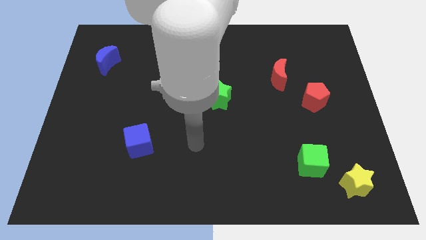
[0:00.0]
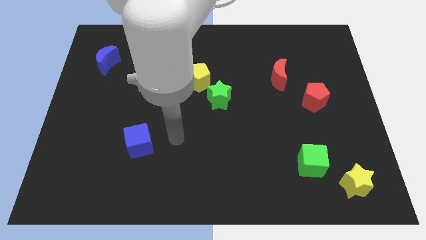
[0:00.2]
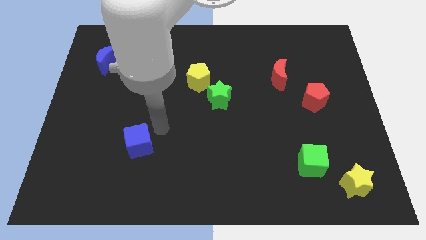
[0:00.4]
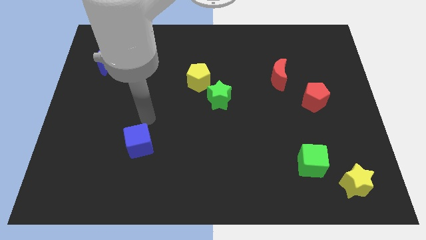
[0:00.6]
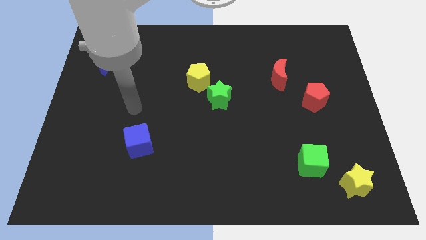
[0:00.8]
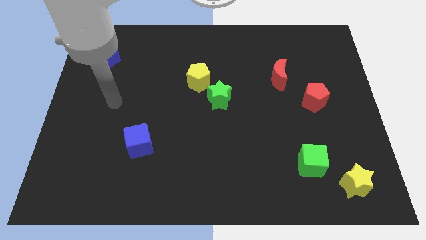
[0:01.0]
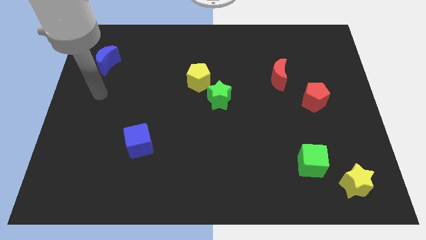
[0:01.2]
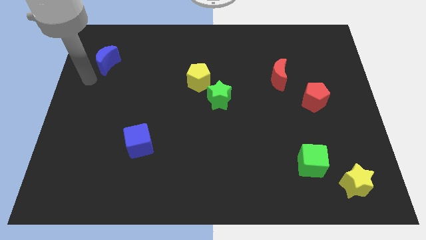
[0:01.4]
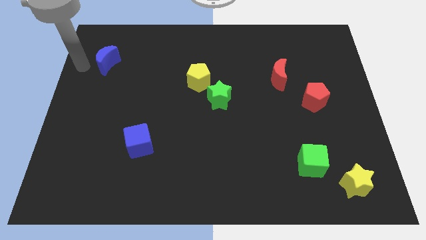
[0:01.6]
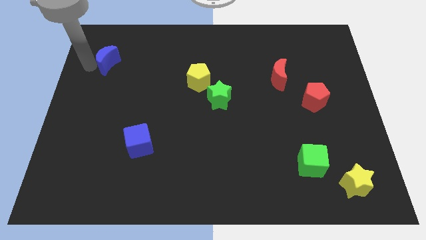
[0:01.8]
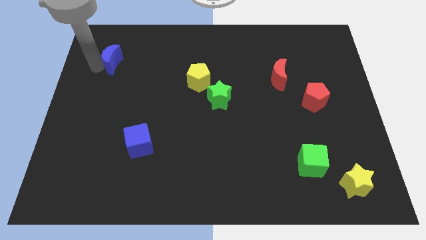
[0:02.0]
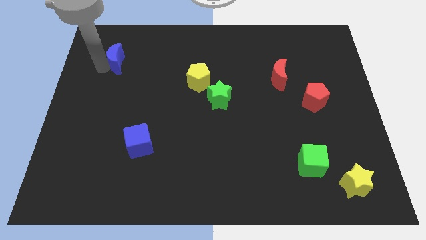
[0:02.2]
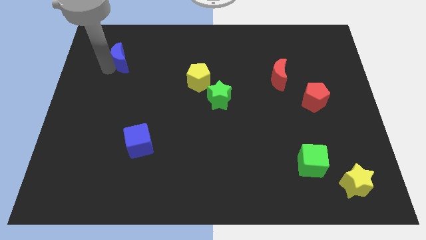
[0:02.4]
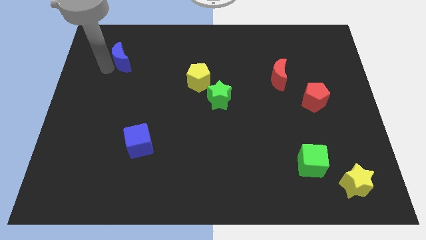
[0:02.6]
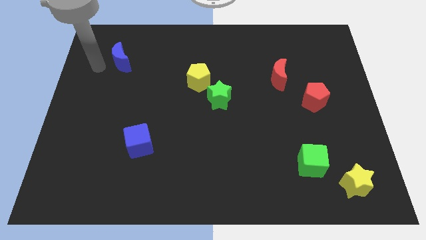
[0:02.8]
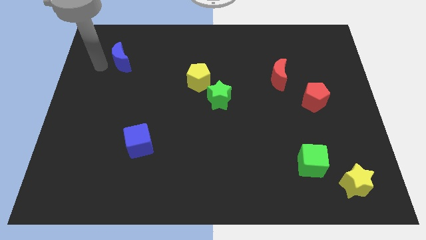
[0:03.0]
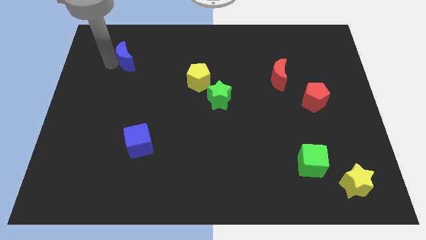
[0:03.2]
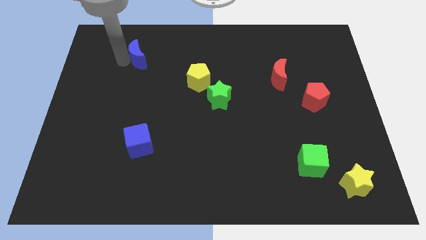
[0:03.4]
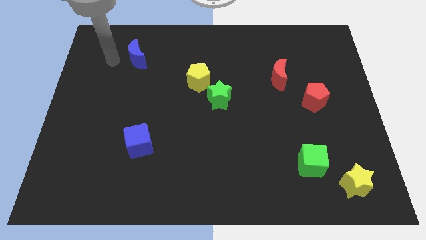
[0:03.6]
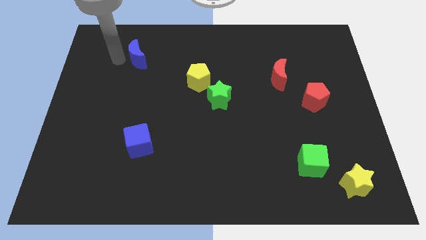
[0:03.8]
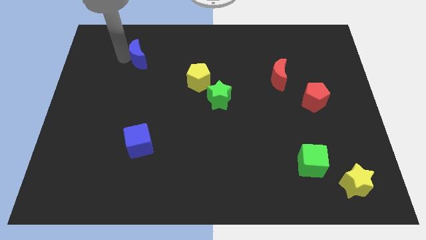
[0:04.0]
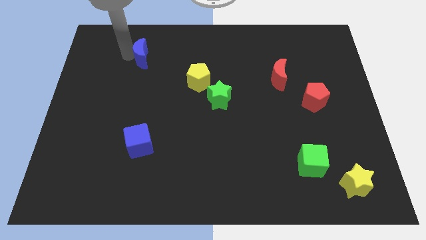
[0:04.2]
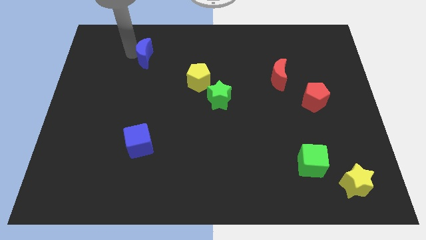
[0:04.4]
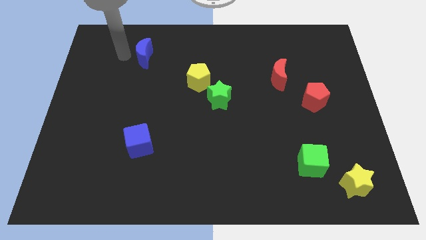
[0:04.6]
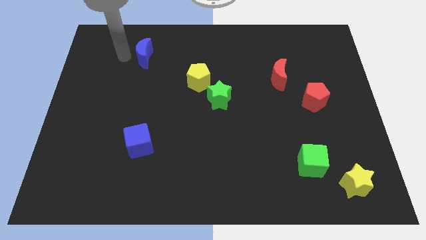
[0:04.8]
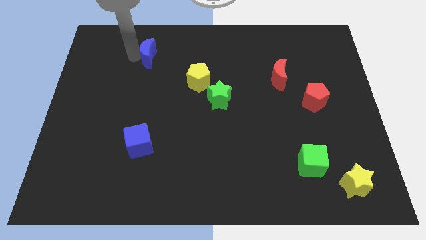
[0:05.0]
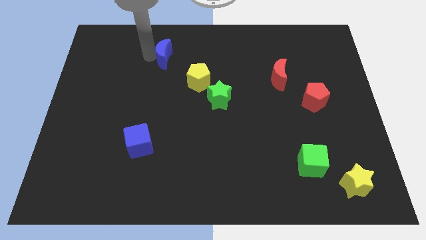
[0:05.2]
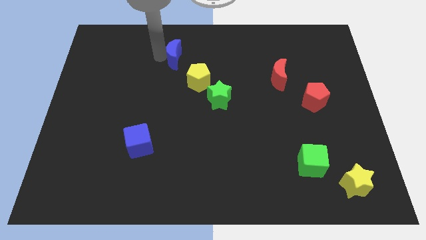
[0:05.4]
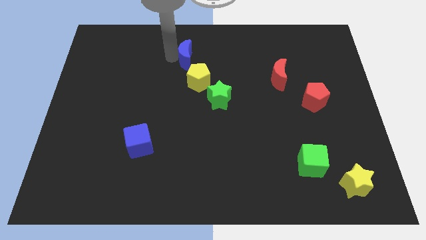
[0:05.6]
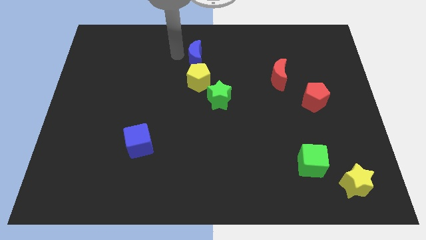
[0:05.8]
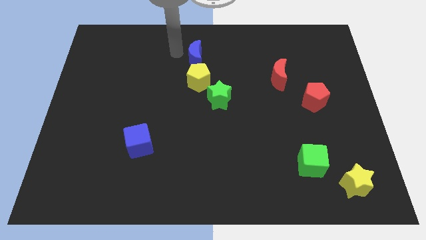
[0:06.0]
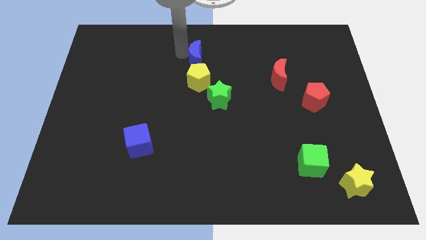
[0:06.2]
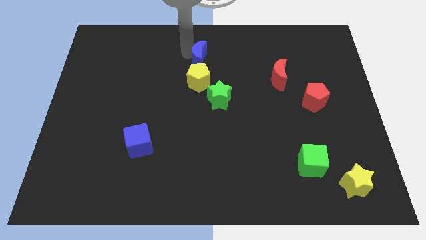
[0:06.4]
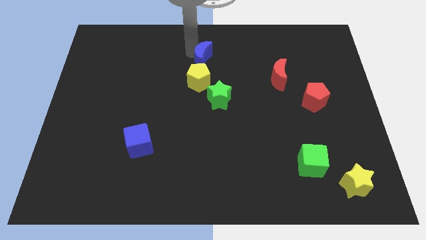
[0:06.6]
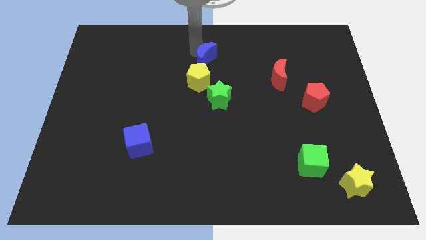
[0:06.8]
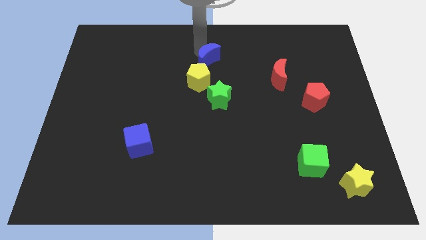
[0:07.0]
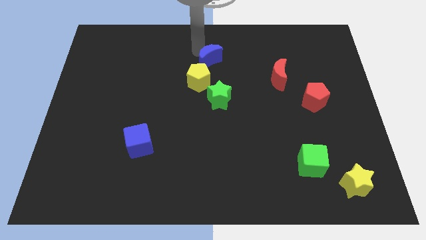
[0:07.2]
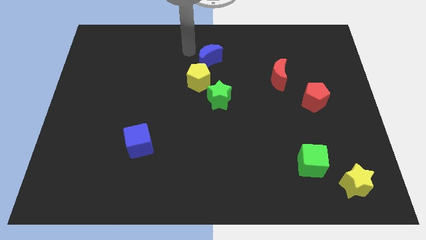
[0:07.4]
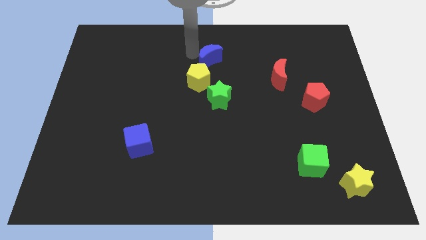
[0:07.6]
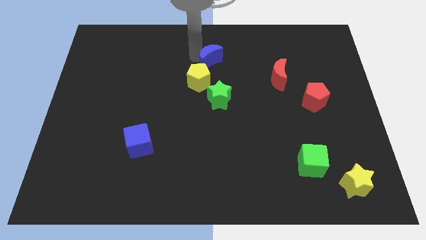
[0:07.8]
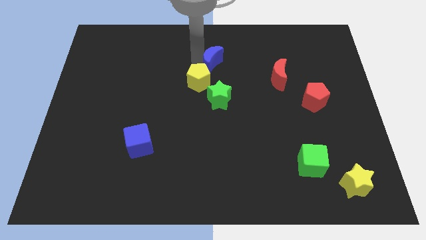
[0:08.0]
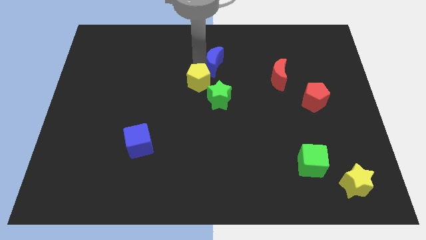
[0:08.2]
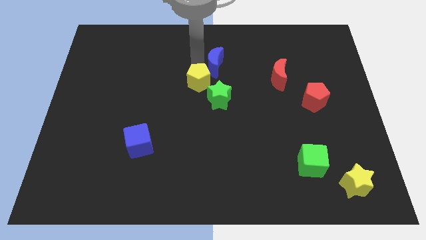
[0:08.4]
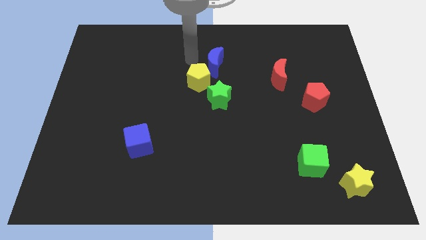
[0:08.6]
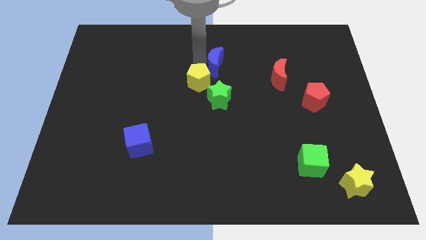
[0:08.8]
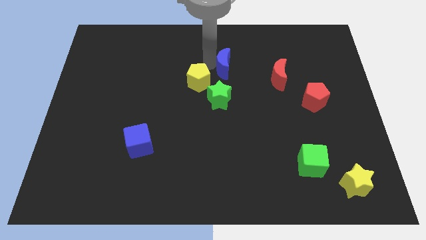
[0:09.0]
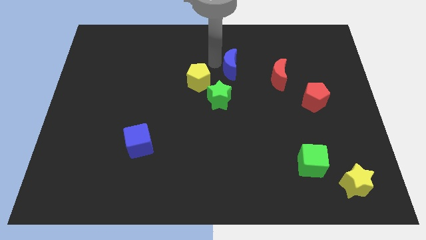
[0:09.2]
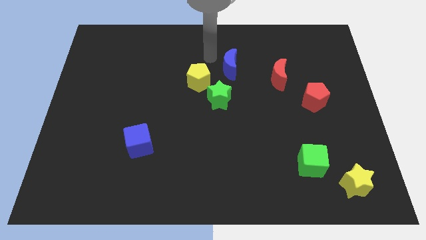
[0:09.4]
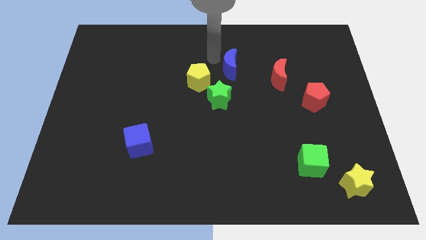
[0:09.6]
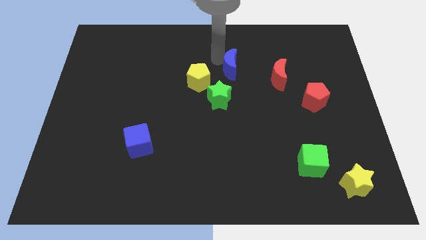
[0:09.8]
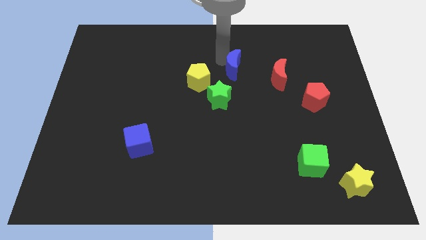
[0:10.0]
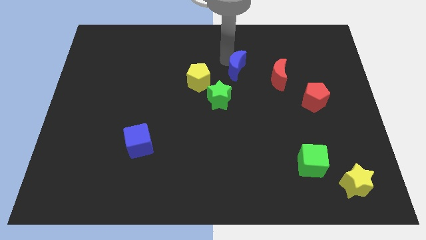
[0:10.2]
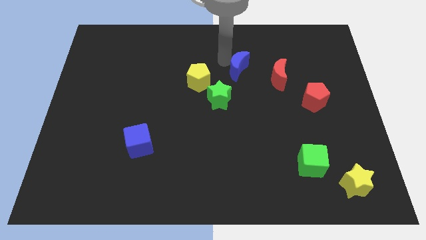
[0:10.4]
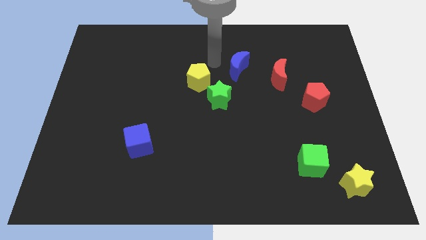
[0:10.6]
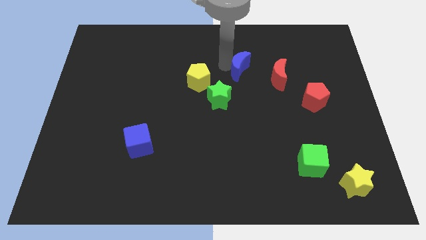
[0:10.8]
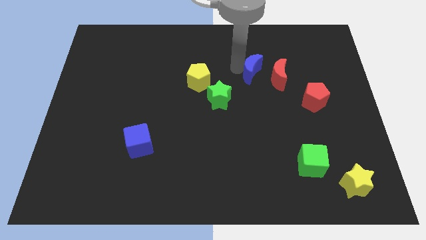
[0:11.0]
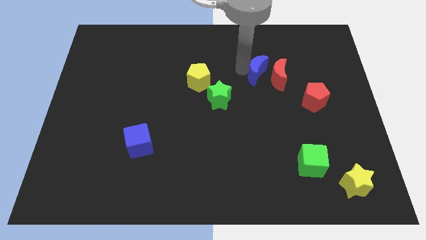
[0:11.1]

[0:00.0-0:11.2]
slide the blue moon close to the red moon

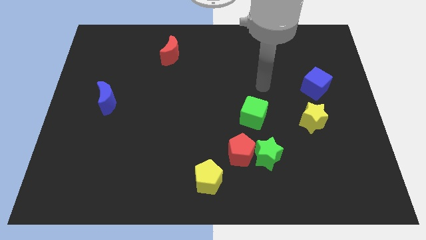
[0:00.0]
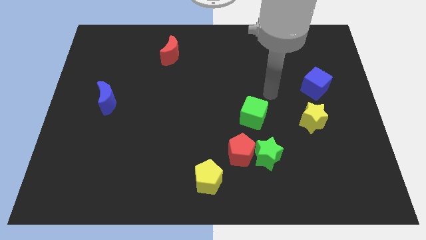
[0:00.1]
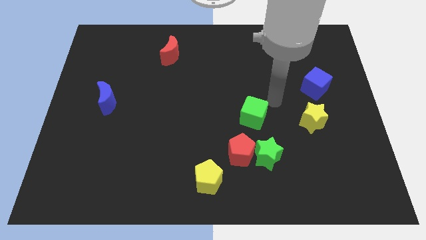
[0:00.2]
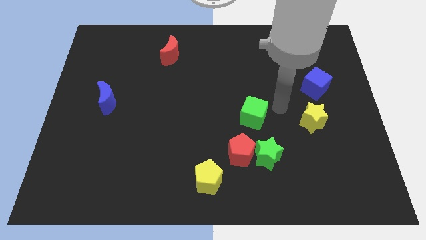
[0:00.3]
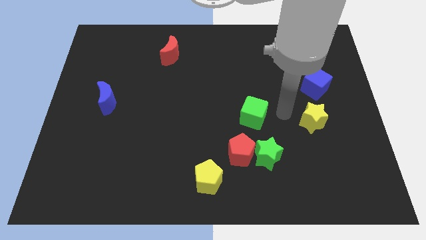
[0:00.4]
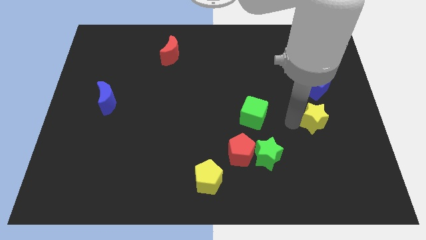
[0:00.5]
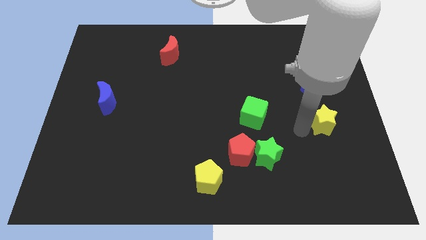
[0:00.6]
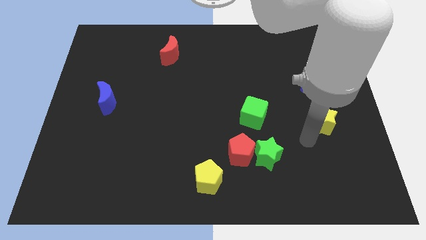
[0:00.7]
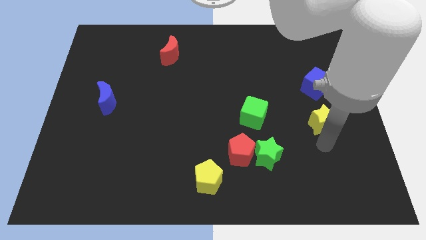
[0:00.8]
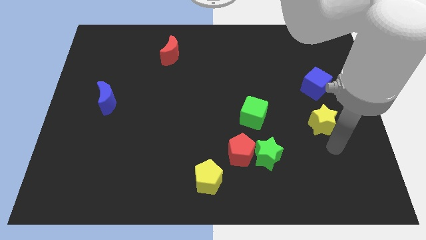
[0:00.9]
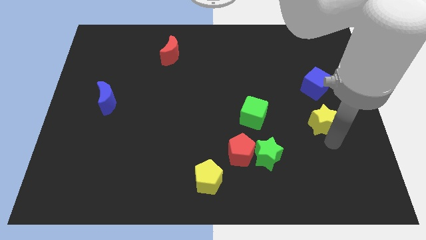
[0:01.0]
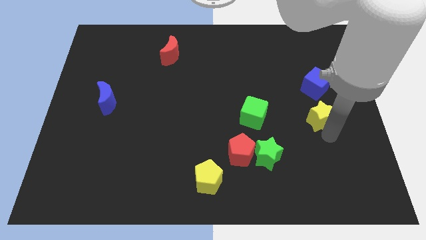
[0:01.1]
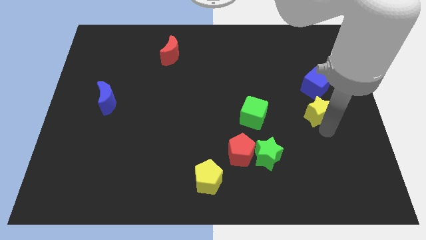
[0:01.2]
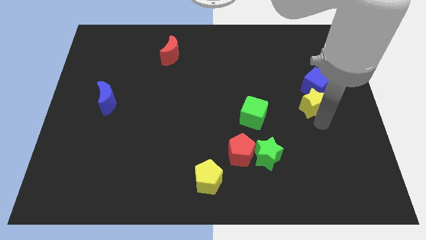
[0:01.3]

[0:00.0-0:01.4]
slide the yellow star towards the blue cube
